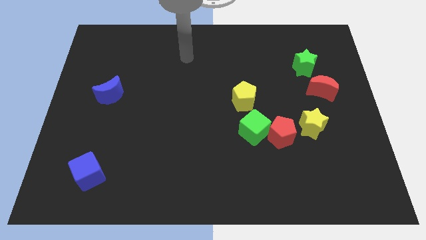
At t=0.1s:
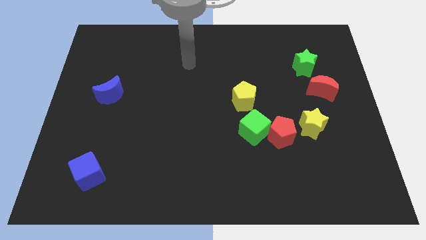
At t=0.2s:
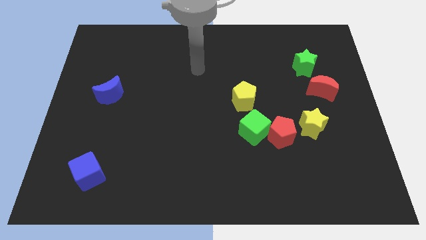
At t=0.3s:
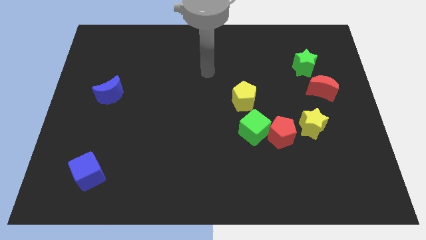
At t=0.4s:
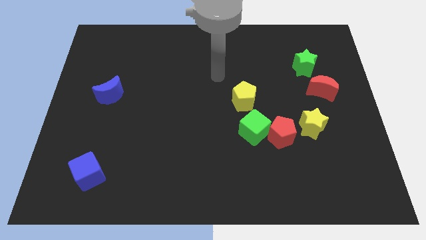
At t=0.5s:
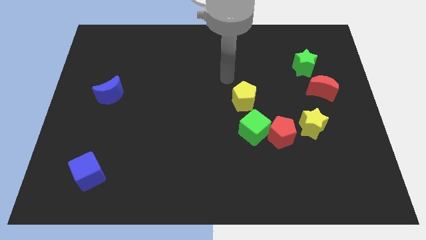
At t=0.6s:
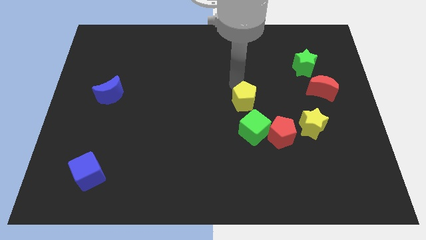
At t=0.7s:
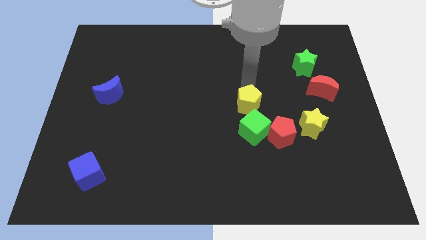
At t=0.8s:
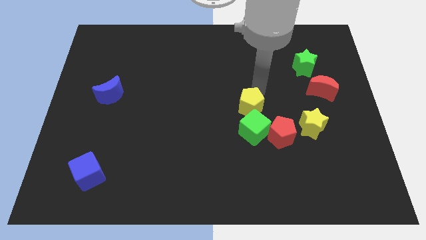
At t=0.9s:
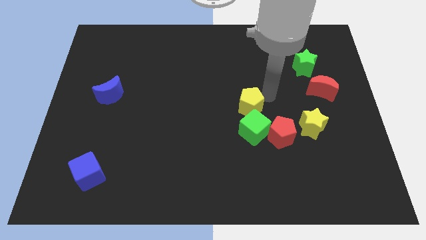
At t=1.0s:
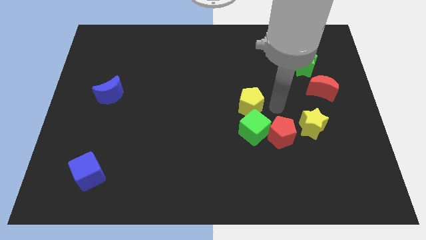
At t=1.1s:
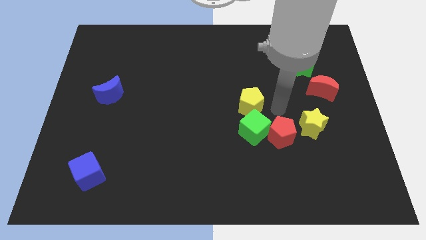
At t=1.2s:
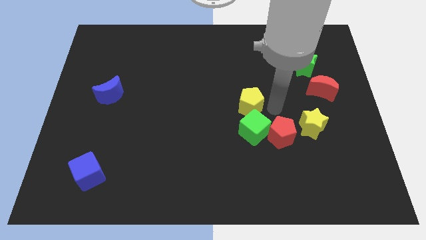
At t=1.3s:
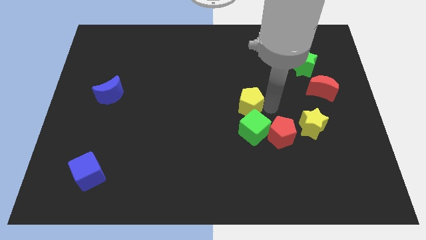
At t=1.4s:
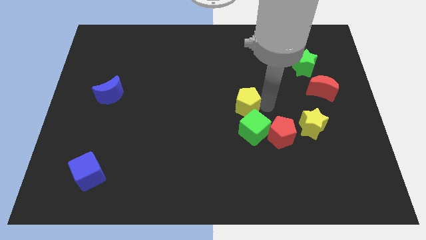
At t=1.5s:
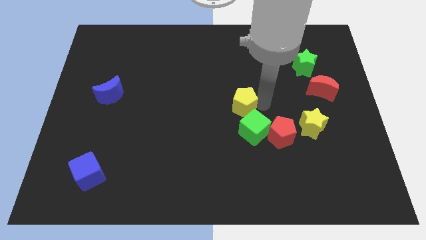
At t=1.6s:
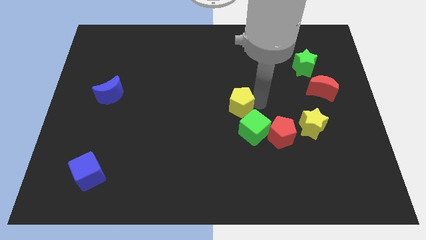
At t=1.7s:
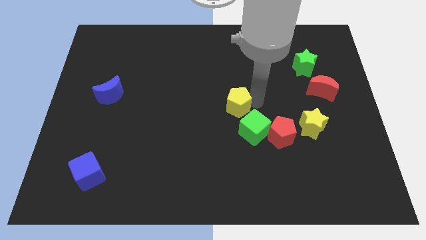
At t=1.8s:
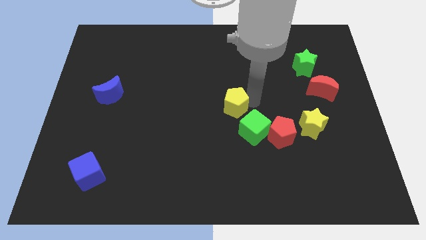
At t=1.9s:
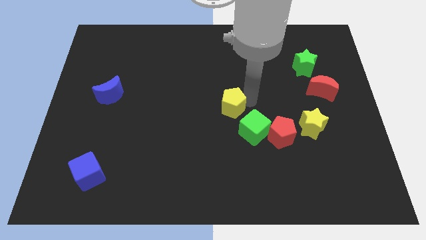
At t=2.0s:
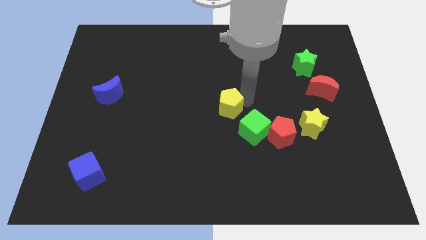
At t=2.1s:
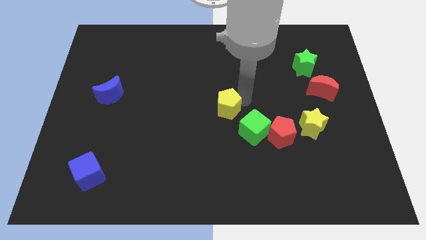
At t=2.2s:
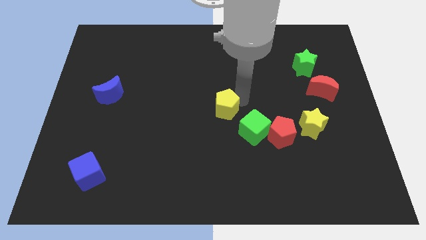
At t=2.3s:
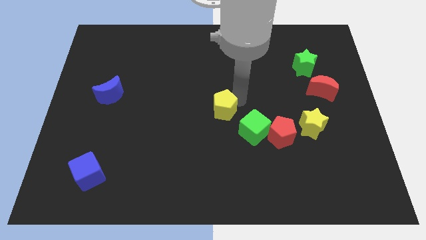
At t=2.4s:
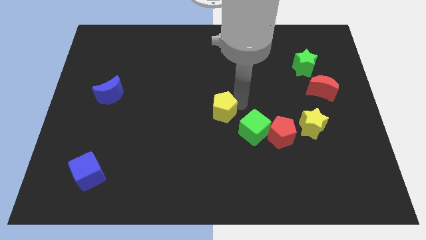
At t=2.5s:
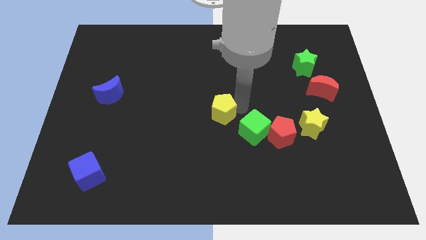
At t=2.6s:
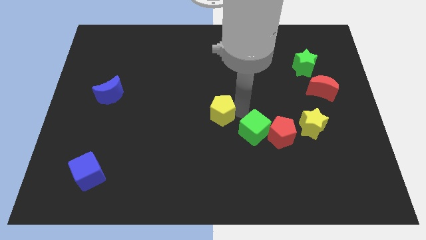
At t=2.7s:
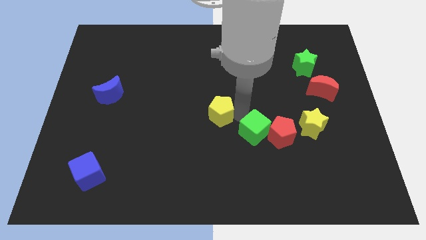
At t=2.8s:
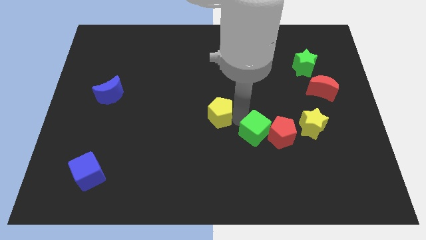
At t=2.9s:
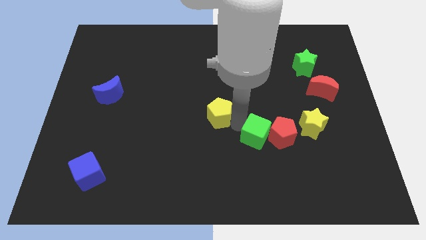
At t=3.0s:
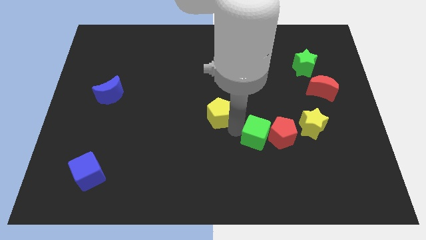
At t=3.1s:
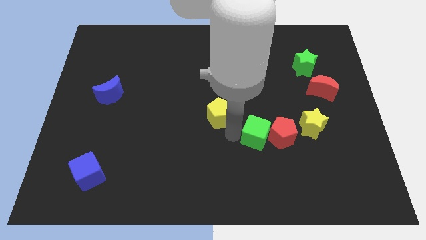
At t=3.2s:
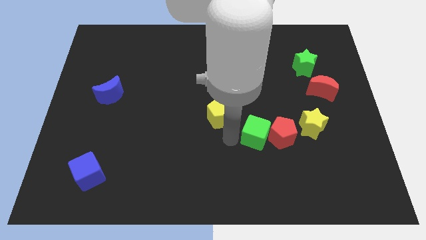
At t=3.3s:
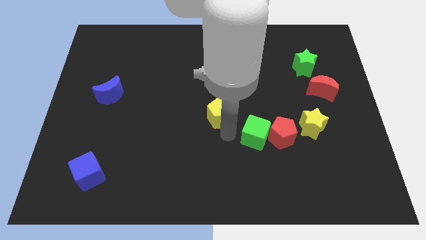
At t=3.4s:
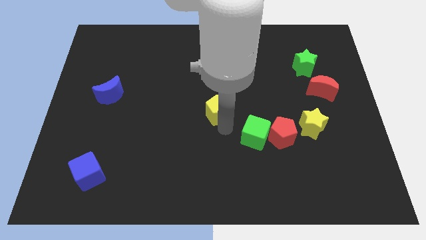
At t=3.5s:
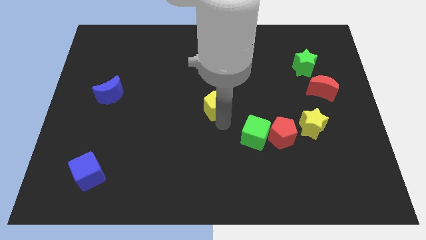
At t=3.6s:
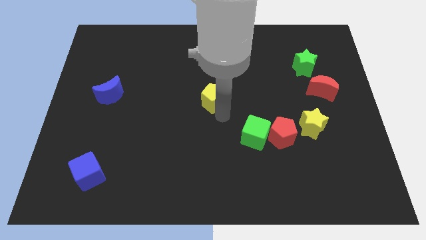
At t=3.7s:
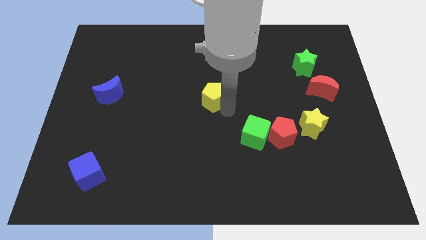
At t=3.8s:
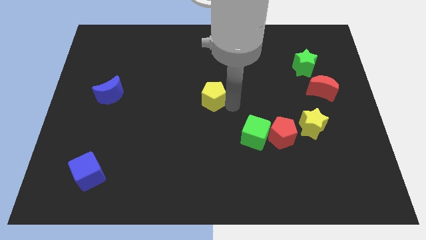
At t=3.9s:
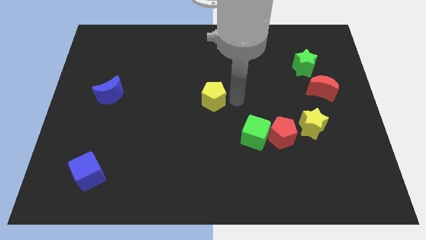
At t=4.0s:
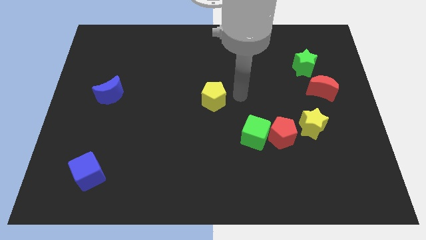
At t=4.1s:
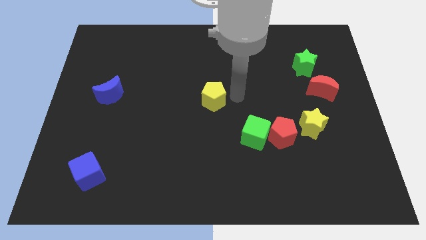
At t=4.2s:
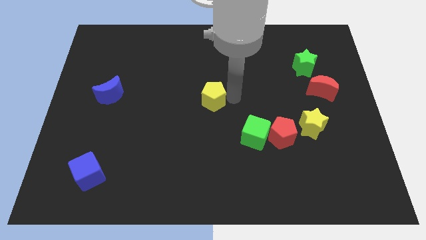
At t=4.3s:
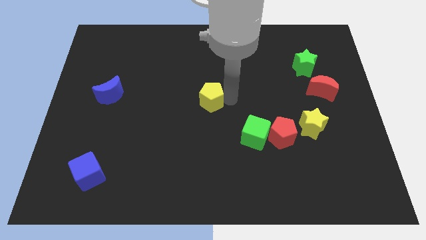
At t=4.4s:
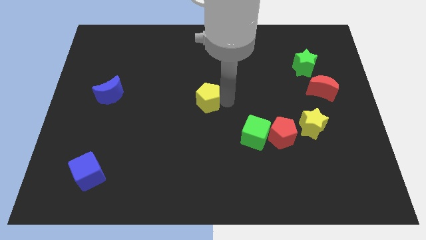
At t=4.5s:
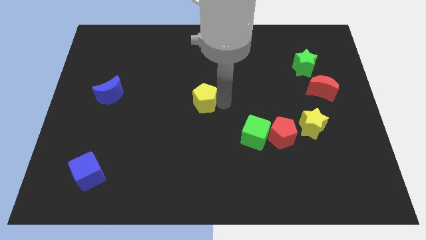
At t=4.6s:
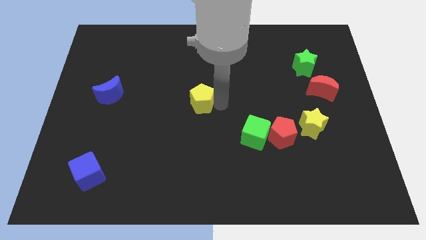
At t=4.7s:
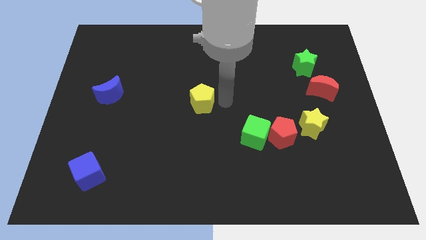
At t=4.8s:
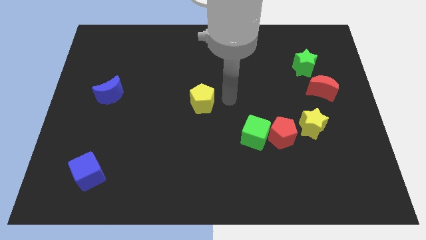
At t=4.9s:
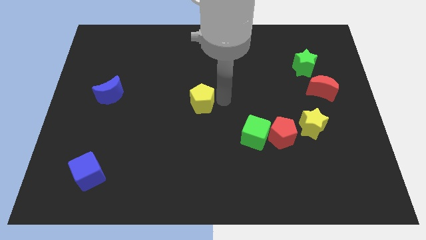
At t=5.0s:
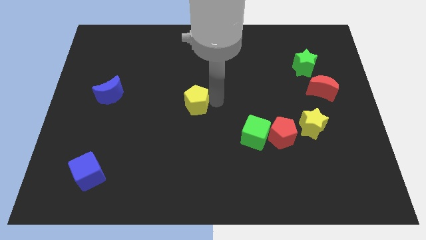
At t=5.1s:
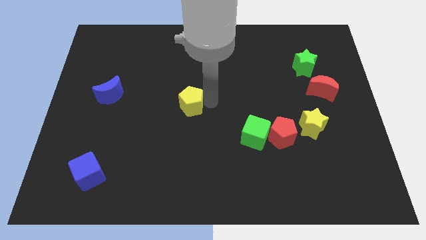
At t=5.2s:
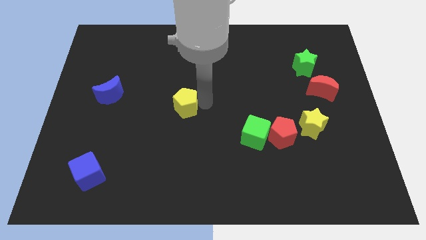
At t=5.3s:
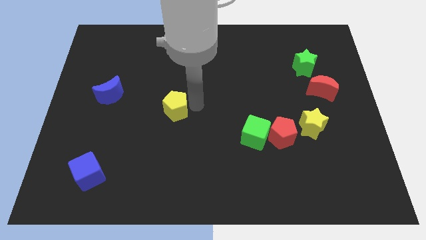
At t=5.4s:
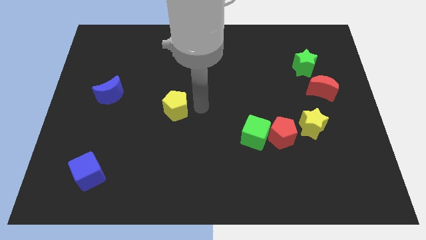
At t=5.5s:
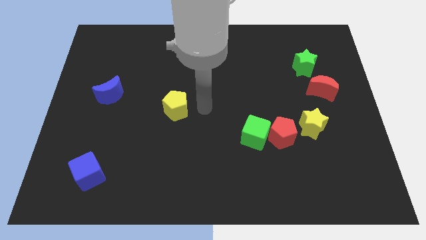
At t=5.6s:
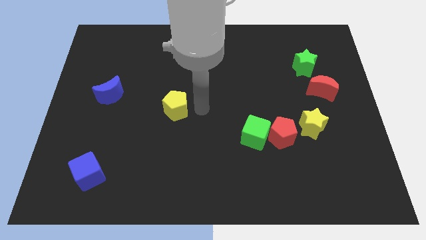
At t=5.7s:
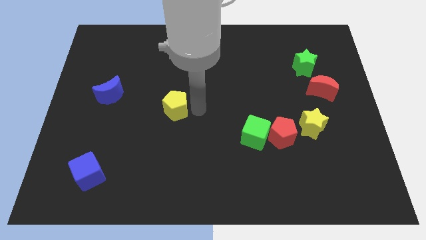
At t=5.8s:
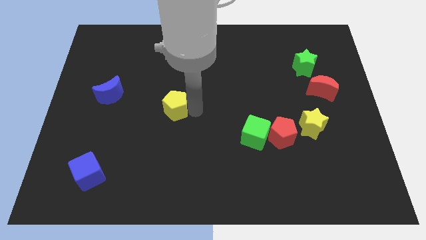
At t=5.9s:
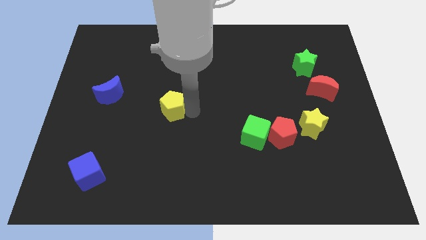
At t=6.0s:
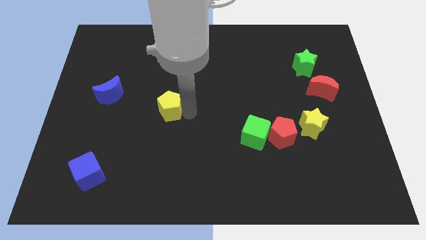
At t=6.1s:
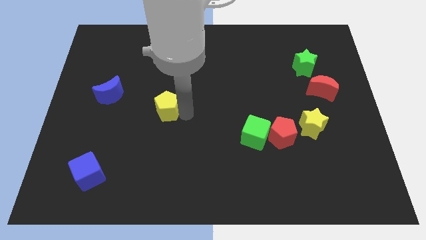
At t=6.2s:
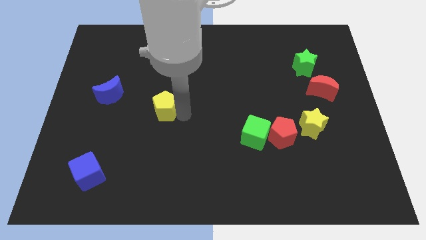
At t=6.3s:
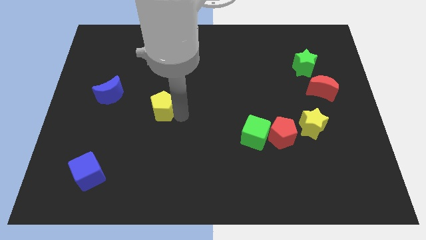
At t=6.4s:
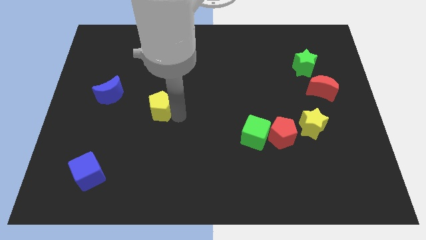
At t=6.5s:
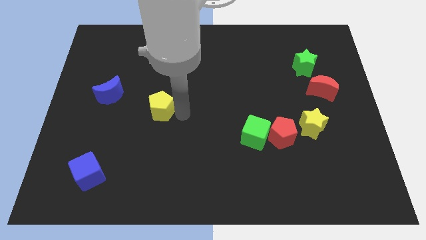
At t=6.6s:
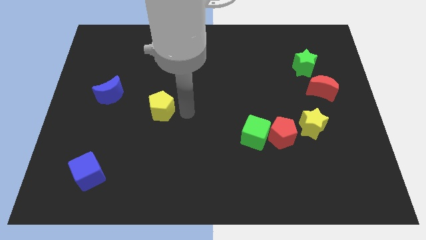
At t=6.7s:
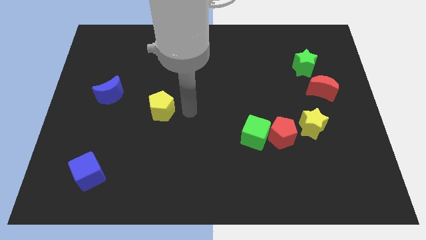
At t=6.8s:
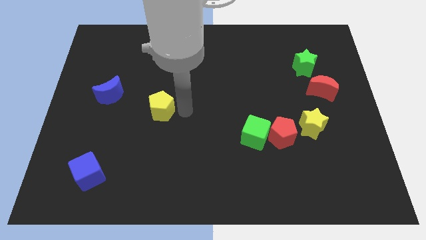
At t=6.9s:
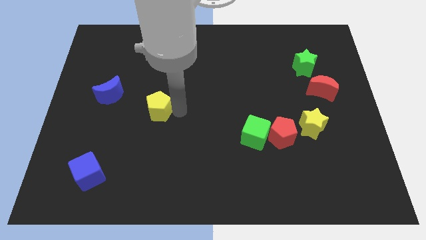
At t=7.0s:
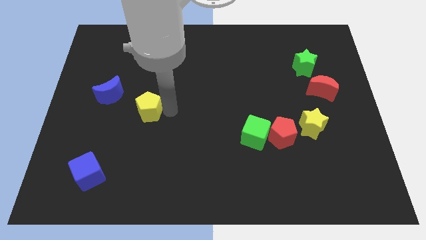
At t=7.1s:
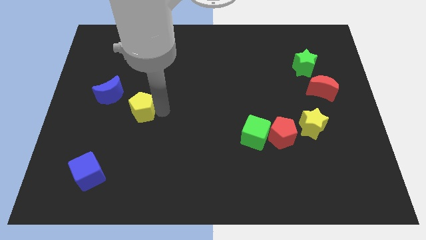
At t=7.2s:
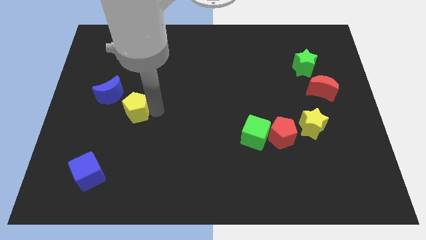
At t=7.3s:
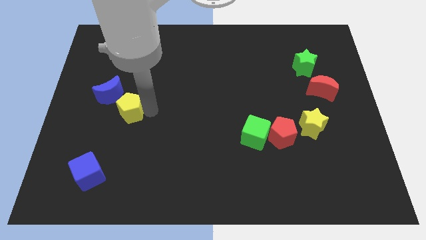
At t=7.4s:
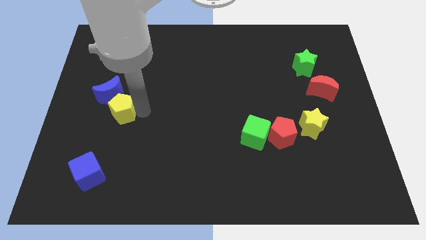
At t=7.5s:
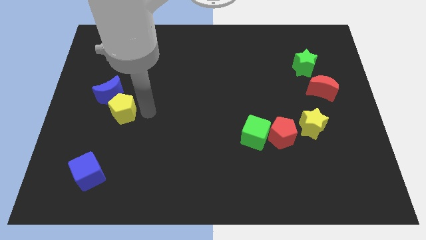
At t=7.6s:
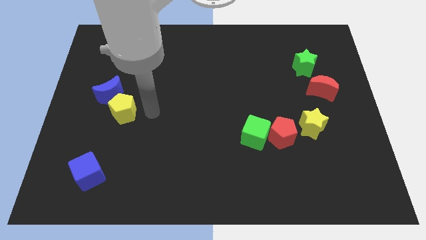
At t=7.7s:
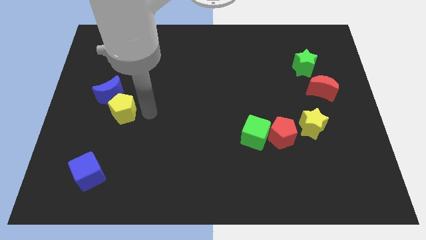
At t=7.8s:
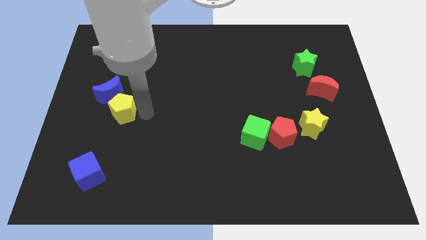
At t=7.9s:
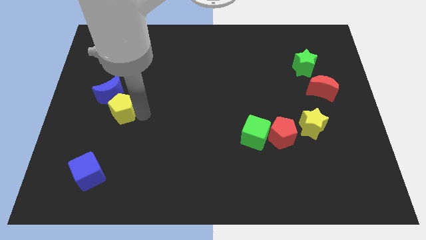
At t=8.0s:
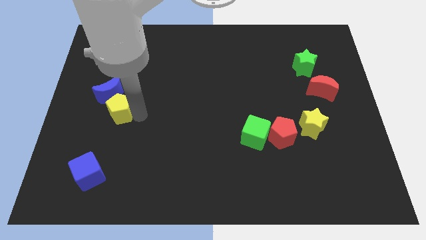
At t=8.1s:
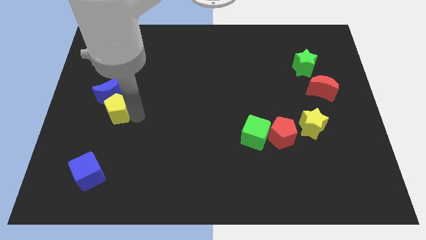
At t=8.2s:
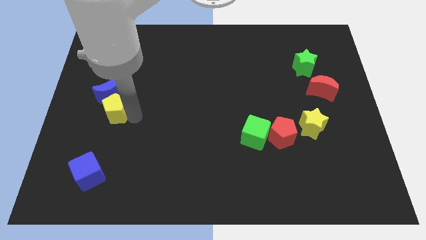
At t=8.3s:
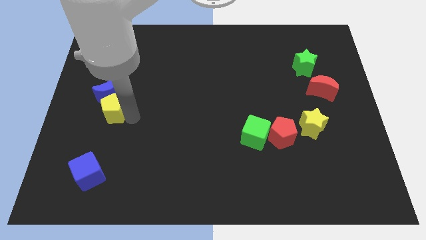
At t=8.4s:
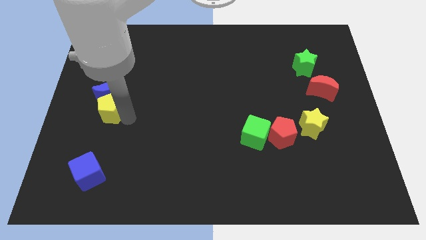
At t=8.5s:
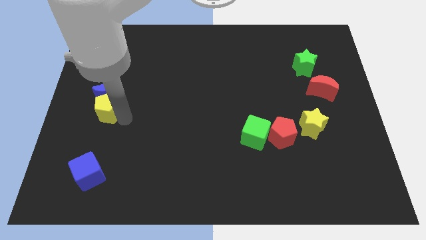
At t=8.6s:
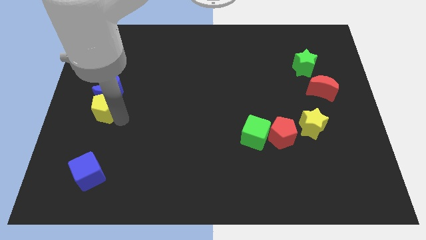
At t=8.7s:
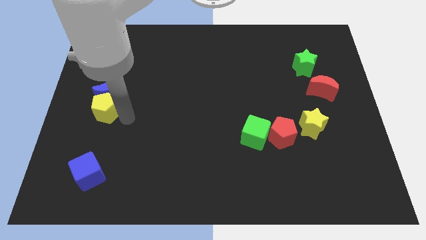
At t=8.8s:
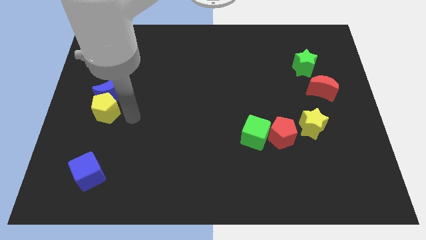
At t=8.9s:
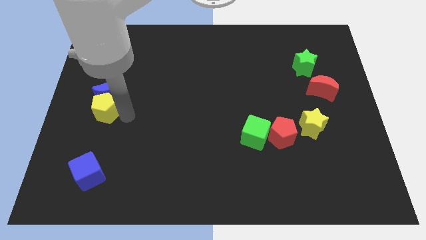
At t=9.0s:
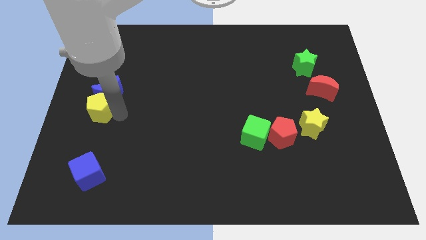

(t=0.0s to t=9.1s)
move the yellow pentagon to the left side of the board
